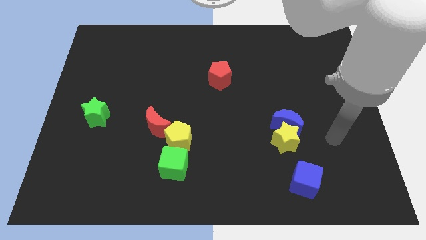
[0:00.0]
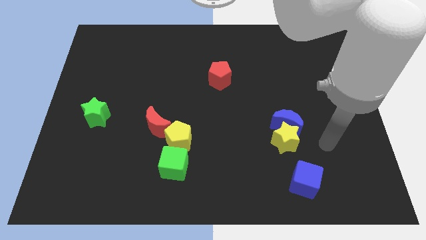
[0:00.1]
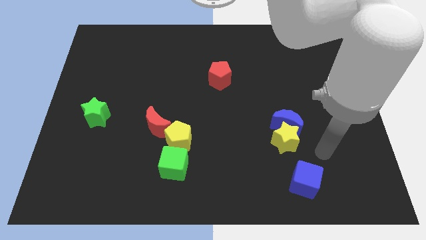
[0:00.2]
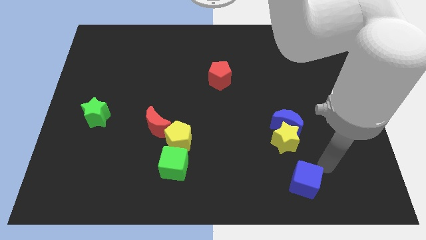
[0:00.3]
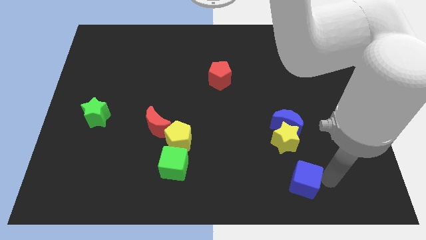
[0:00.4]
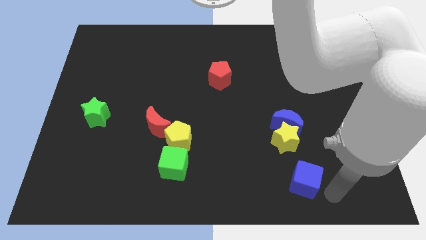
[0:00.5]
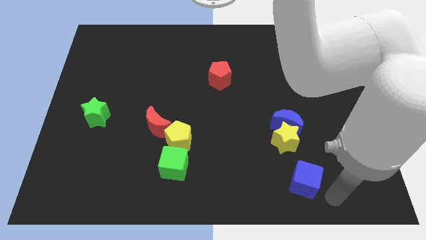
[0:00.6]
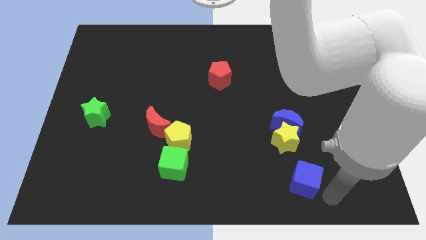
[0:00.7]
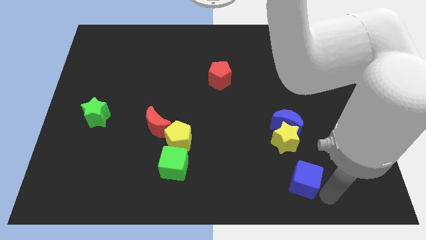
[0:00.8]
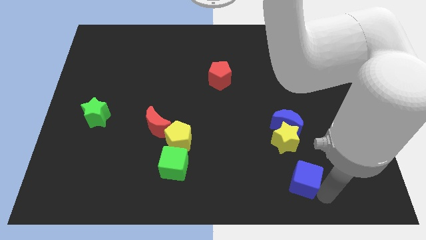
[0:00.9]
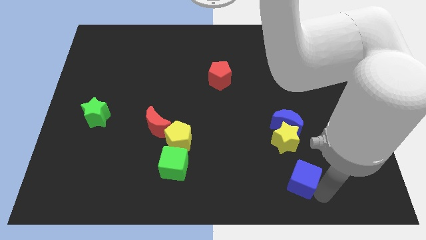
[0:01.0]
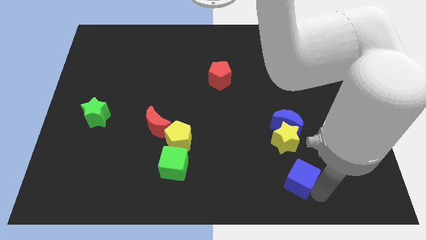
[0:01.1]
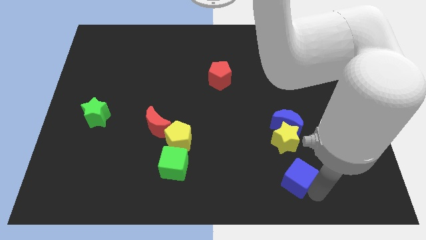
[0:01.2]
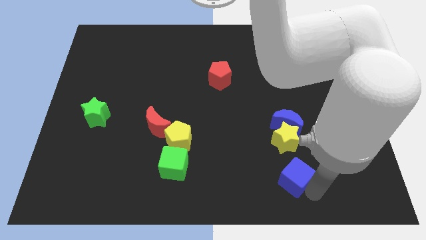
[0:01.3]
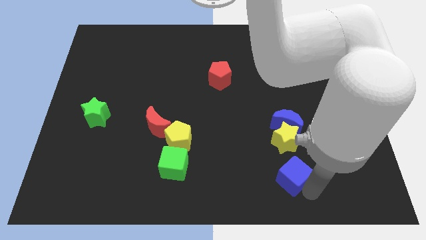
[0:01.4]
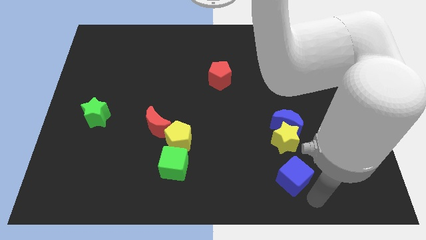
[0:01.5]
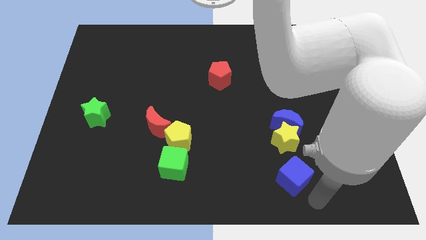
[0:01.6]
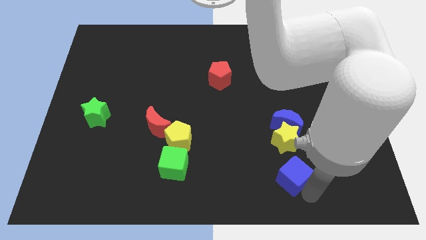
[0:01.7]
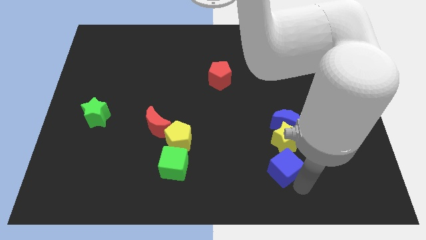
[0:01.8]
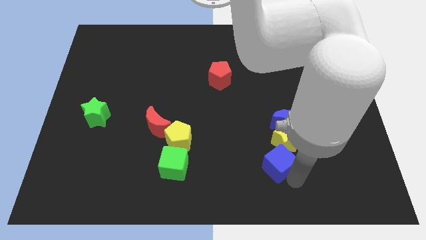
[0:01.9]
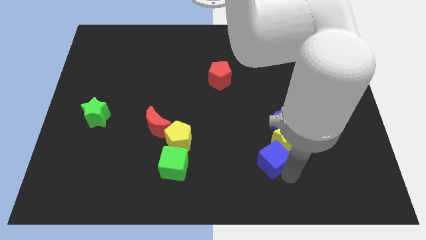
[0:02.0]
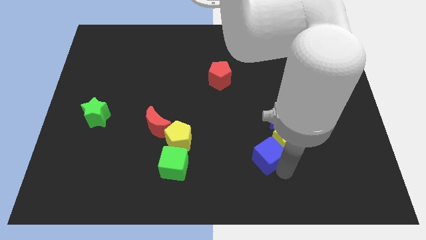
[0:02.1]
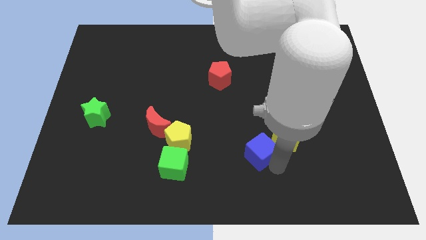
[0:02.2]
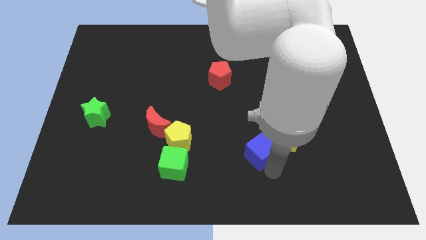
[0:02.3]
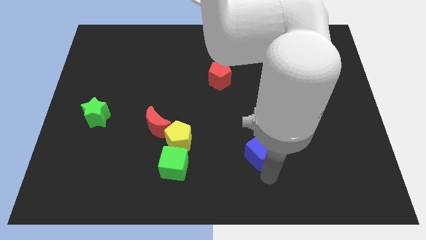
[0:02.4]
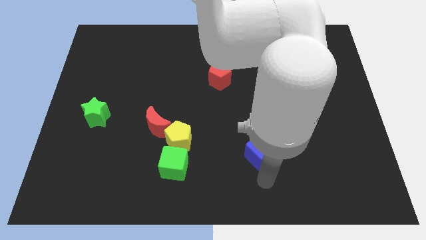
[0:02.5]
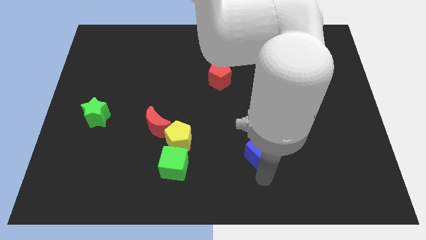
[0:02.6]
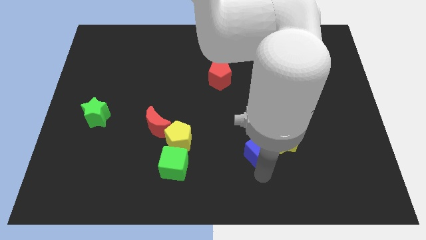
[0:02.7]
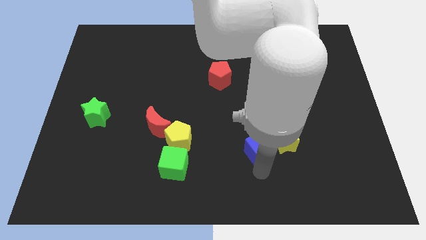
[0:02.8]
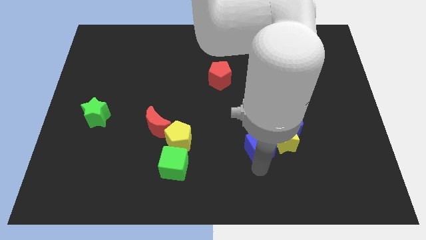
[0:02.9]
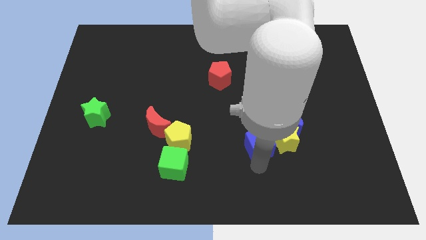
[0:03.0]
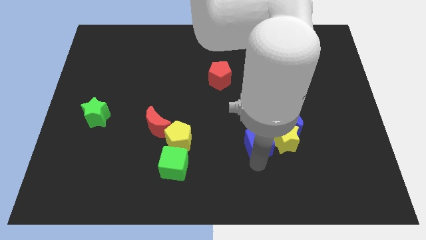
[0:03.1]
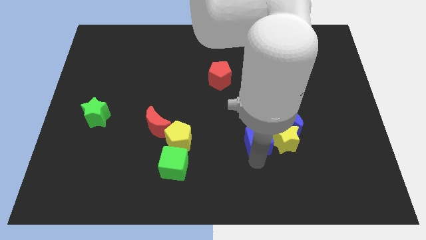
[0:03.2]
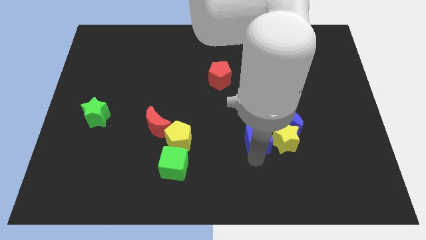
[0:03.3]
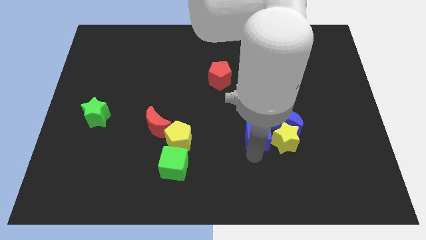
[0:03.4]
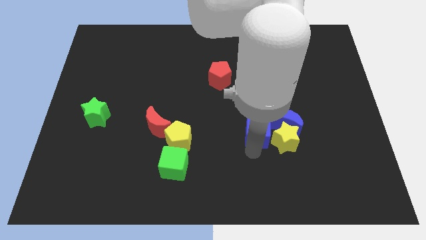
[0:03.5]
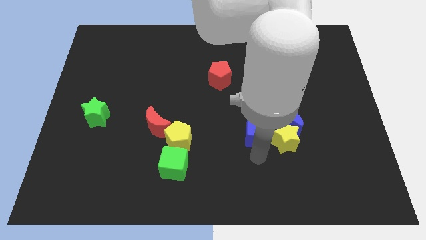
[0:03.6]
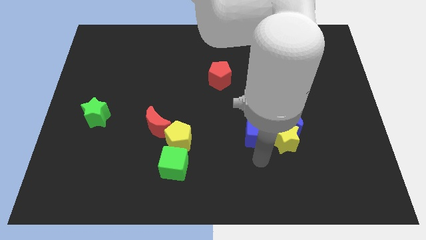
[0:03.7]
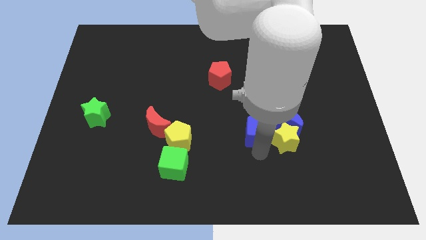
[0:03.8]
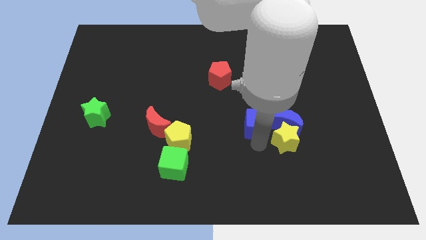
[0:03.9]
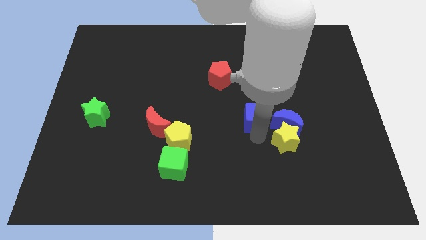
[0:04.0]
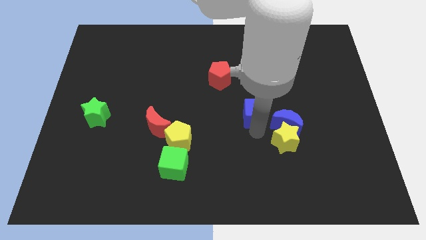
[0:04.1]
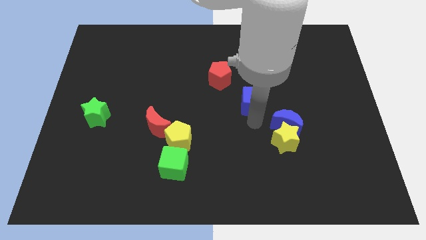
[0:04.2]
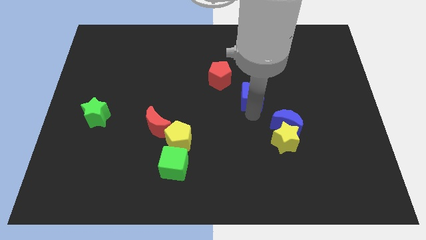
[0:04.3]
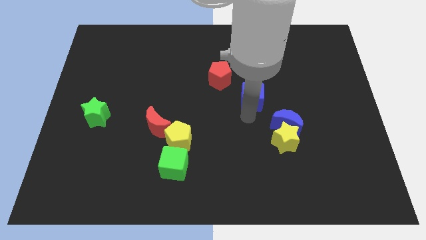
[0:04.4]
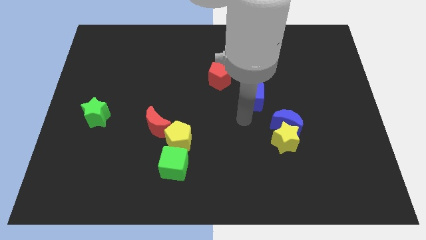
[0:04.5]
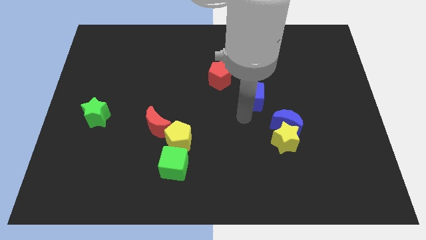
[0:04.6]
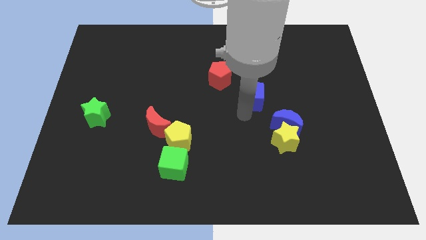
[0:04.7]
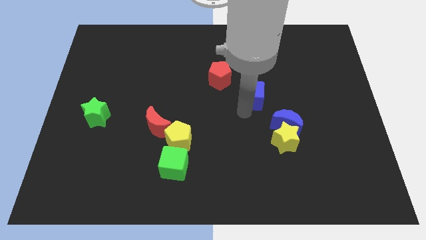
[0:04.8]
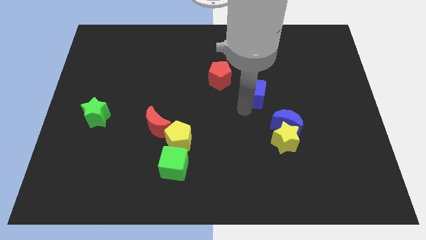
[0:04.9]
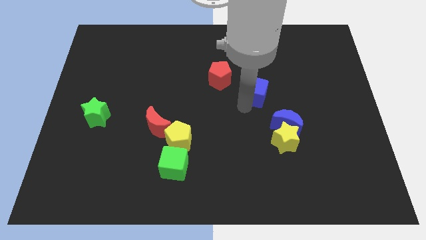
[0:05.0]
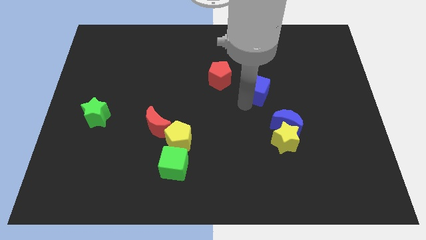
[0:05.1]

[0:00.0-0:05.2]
move the blue cube to the right side of the red pentagon

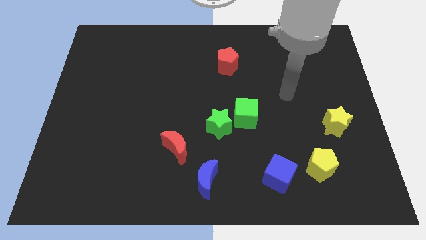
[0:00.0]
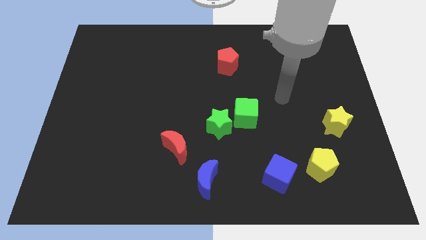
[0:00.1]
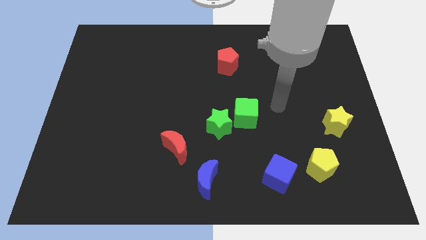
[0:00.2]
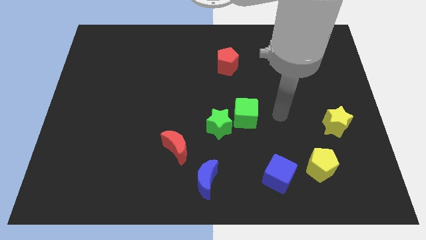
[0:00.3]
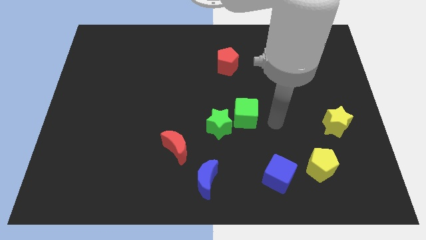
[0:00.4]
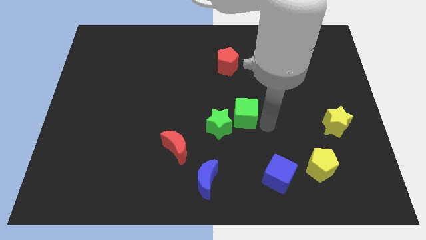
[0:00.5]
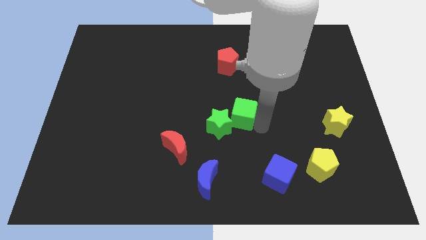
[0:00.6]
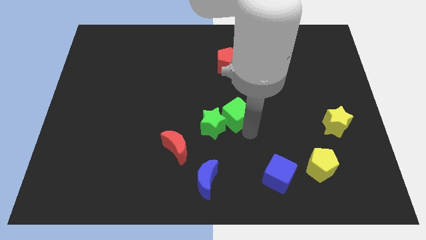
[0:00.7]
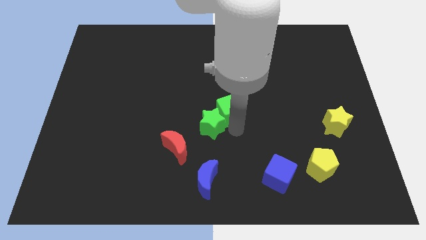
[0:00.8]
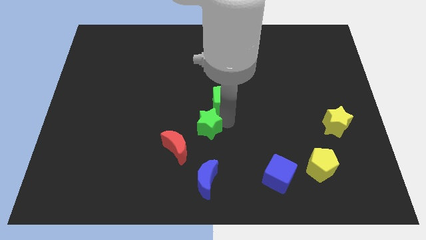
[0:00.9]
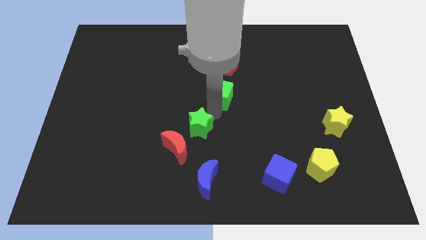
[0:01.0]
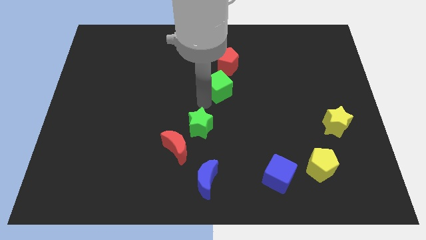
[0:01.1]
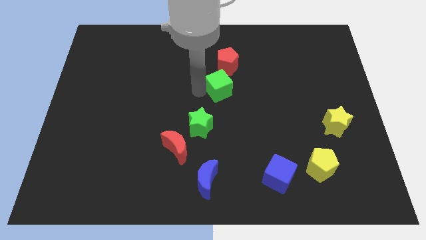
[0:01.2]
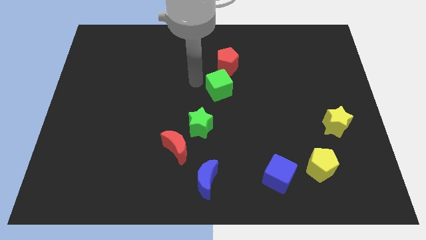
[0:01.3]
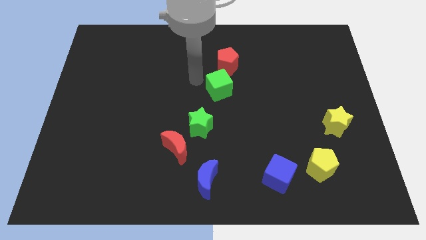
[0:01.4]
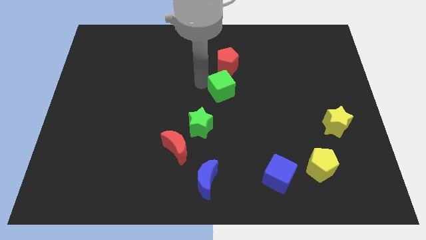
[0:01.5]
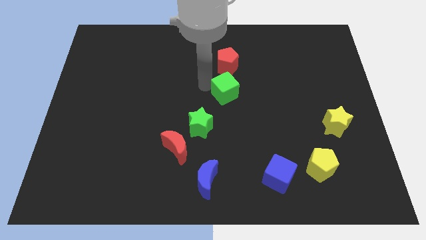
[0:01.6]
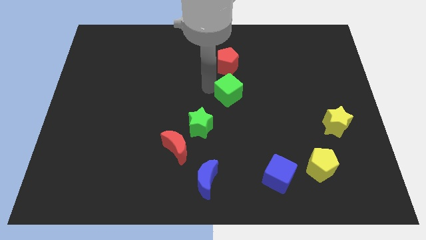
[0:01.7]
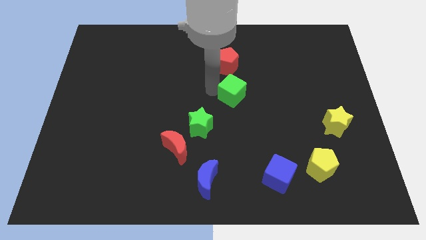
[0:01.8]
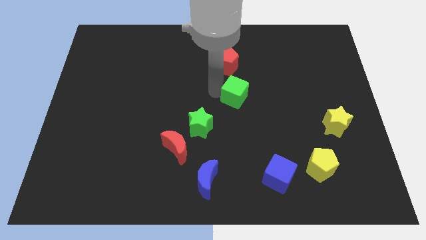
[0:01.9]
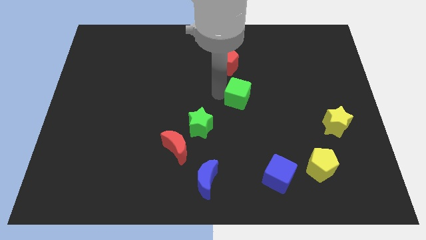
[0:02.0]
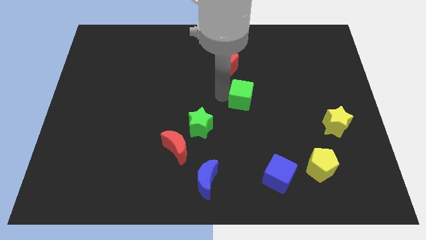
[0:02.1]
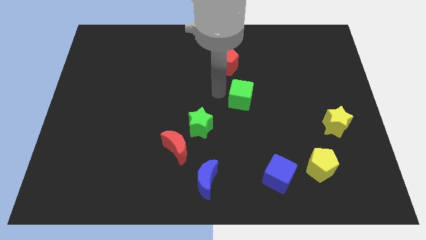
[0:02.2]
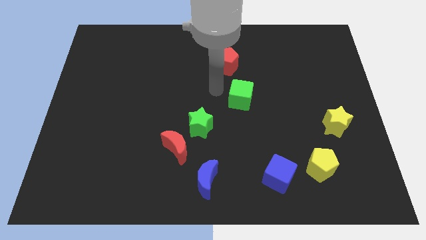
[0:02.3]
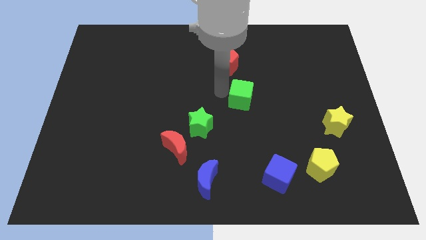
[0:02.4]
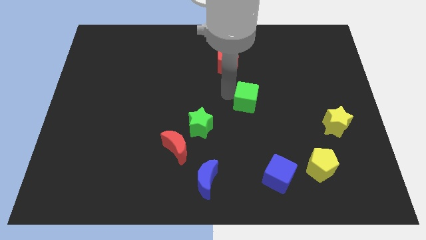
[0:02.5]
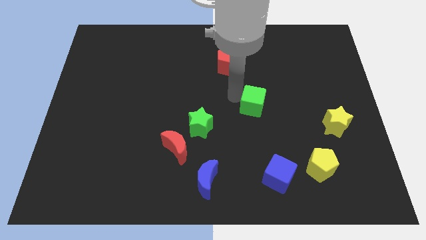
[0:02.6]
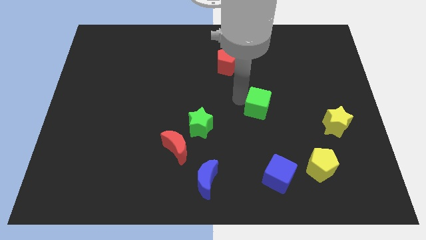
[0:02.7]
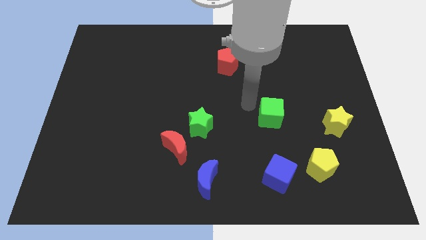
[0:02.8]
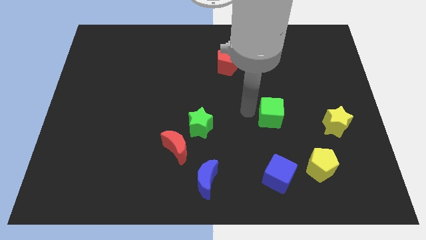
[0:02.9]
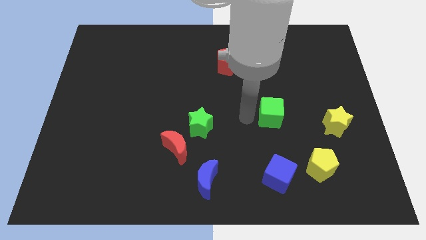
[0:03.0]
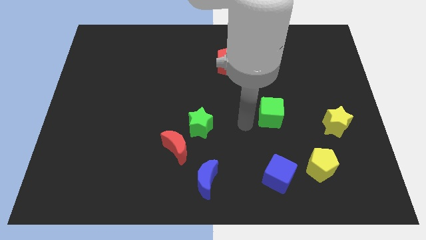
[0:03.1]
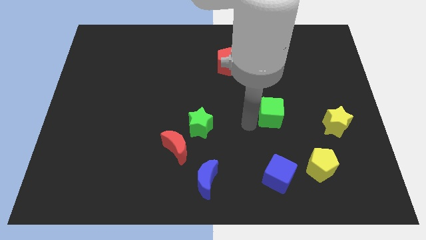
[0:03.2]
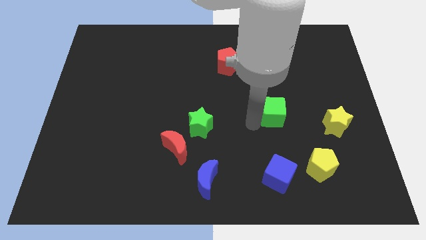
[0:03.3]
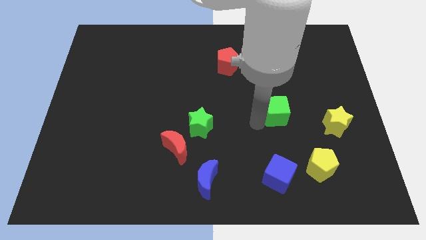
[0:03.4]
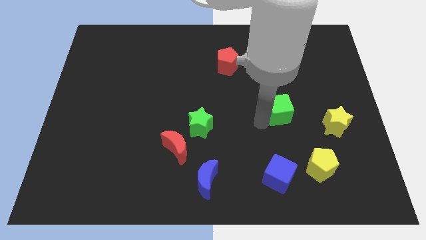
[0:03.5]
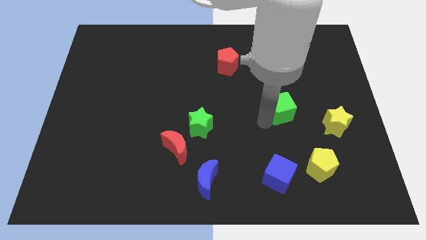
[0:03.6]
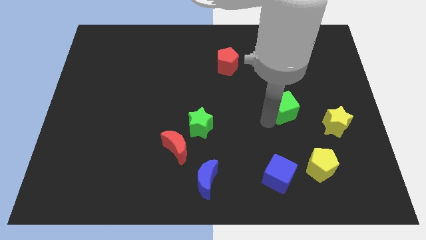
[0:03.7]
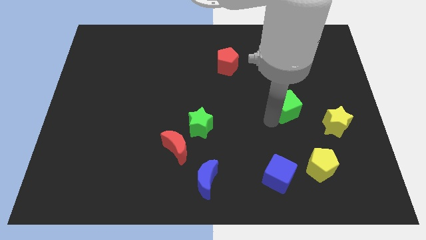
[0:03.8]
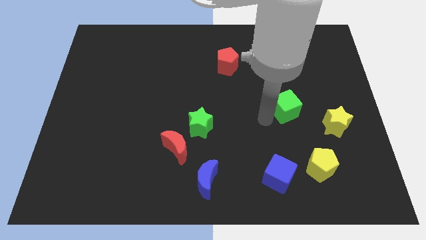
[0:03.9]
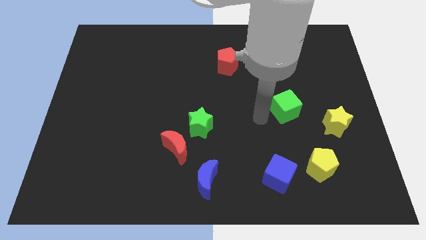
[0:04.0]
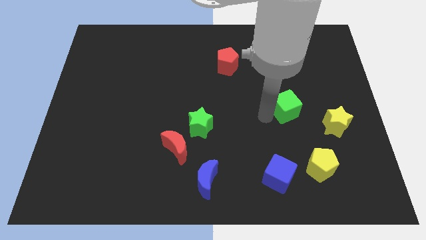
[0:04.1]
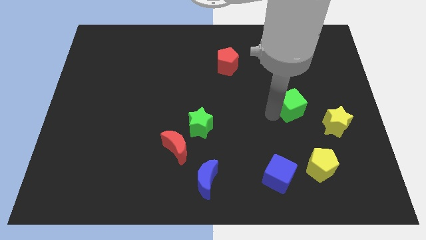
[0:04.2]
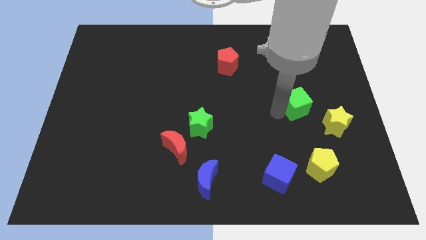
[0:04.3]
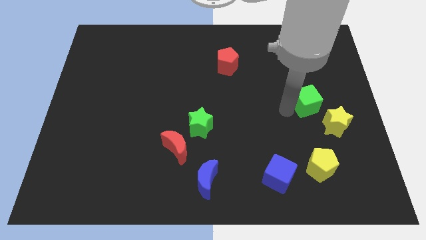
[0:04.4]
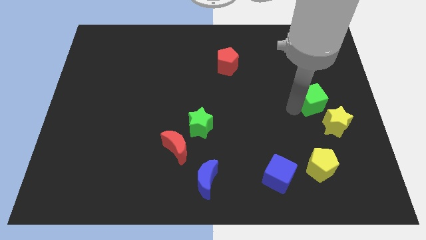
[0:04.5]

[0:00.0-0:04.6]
move the green cube to the top of the yellow star
